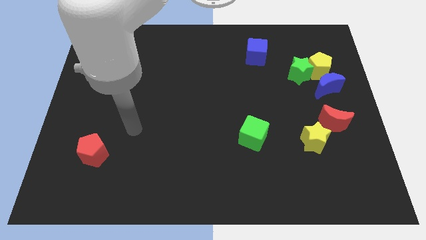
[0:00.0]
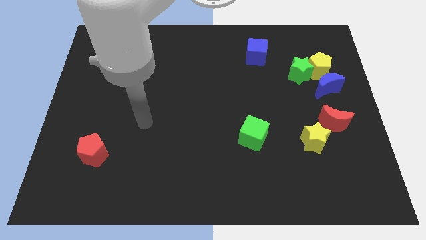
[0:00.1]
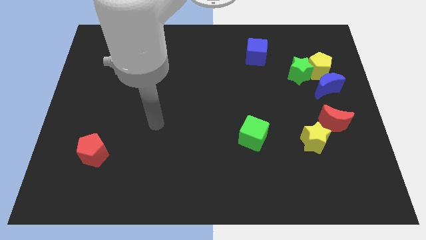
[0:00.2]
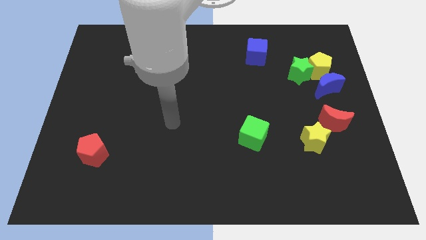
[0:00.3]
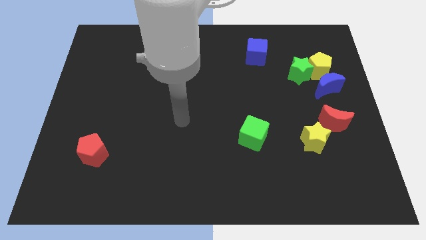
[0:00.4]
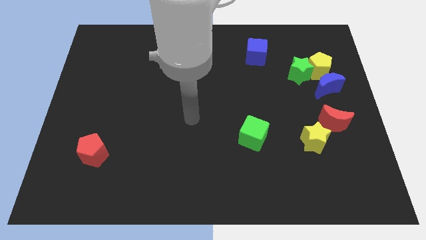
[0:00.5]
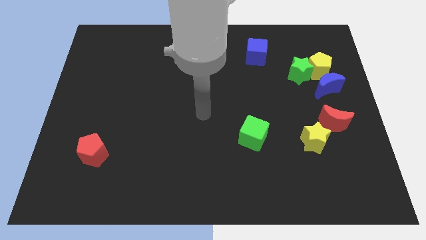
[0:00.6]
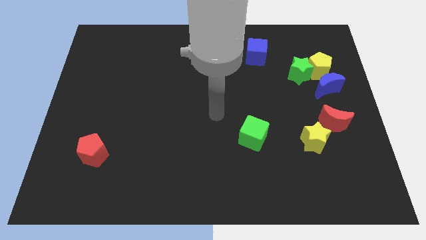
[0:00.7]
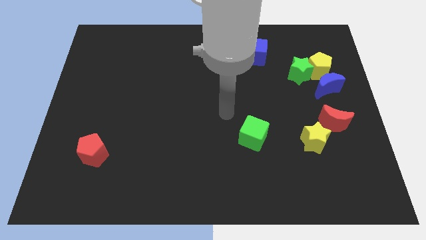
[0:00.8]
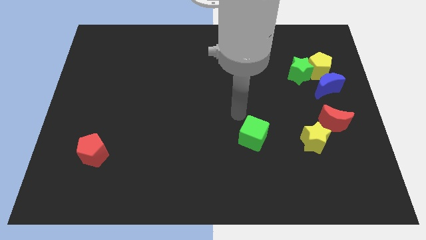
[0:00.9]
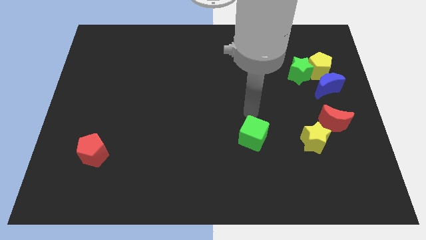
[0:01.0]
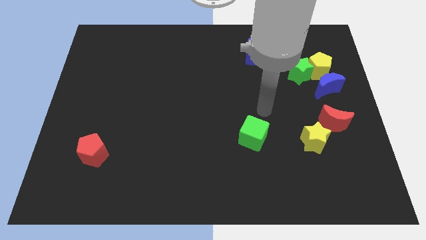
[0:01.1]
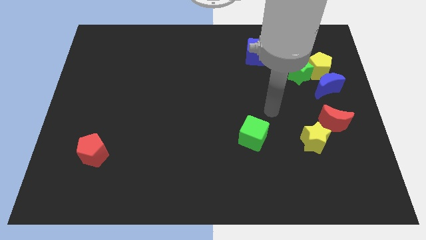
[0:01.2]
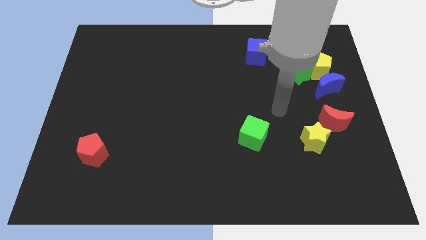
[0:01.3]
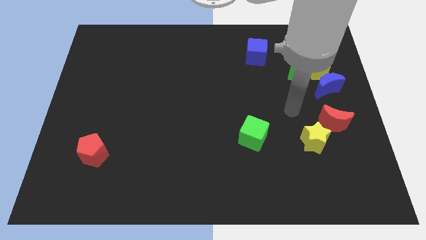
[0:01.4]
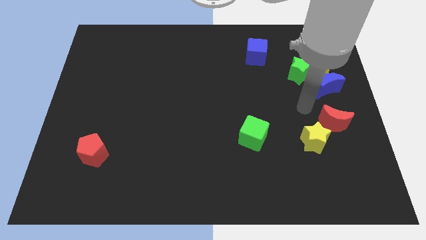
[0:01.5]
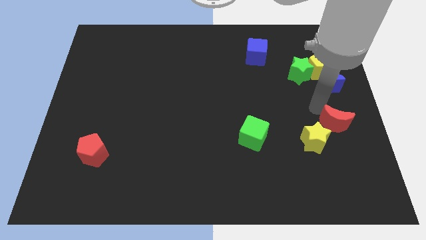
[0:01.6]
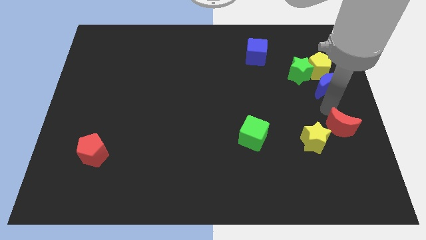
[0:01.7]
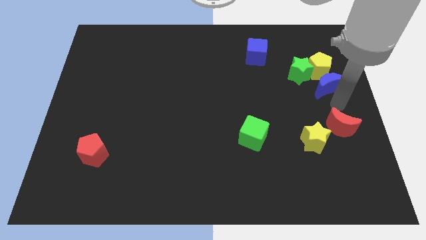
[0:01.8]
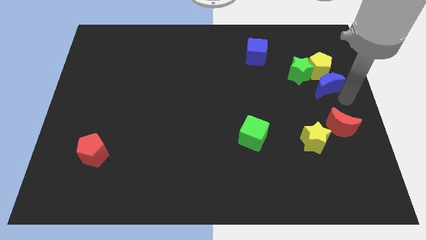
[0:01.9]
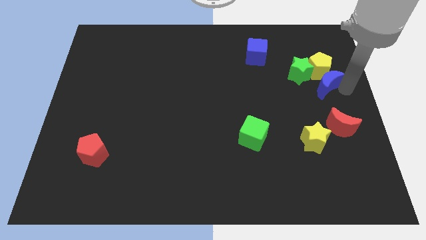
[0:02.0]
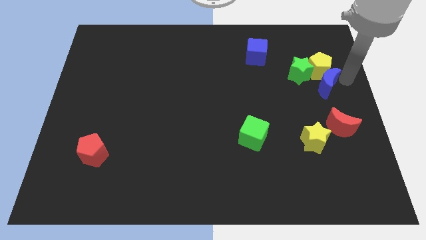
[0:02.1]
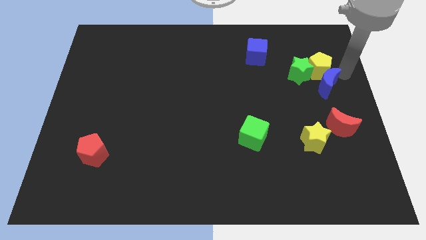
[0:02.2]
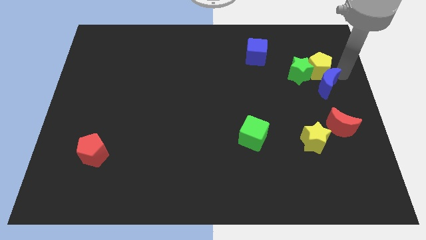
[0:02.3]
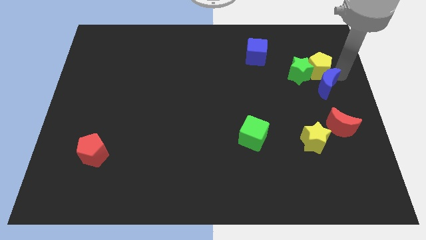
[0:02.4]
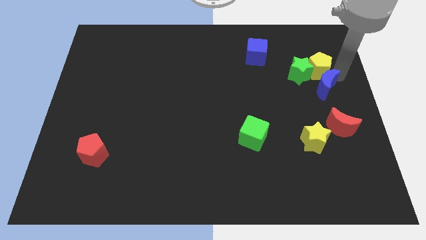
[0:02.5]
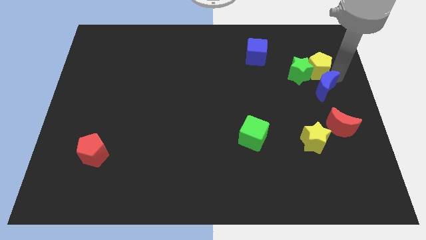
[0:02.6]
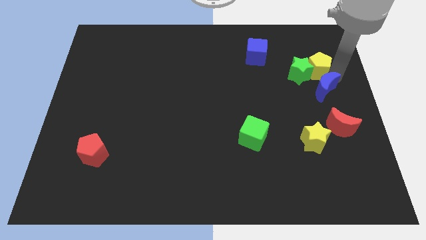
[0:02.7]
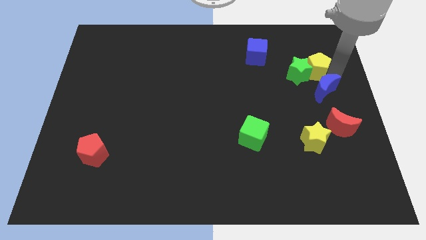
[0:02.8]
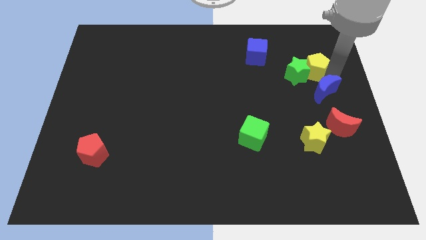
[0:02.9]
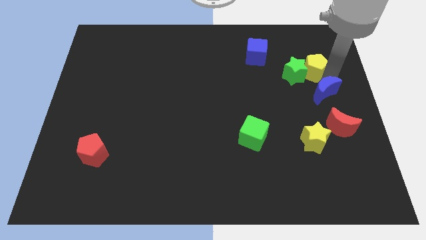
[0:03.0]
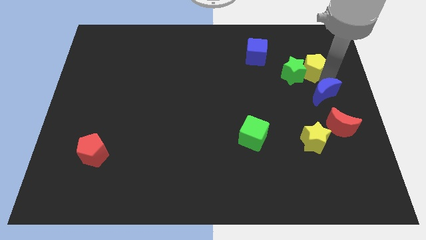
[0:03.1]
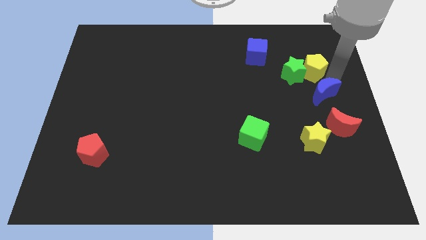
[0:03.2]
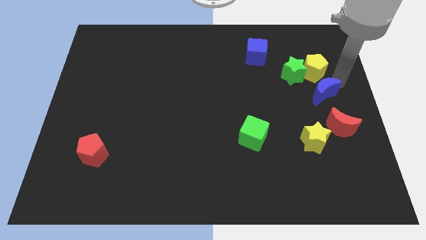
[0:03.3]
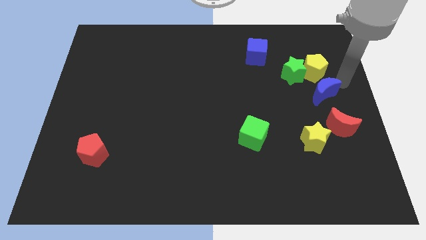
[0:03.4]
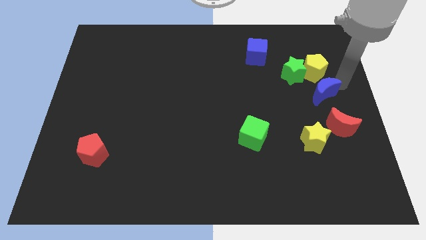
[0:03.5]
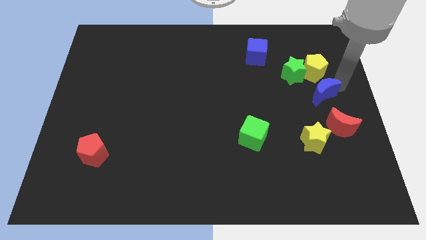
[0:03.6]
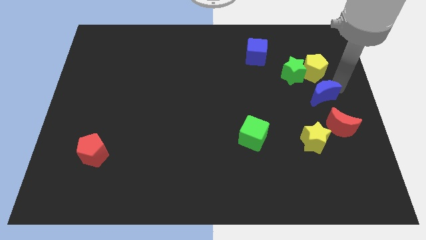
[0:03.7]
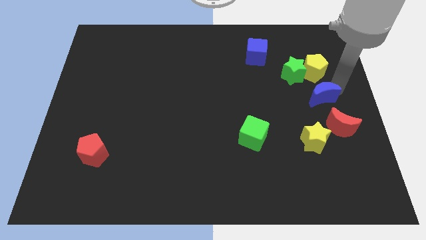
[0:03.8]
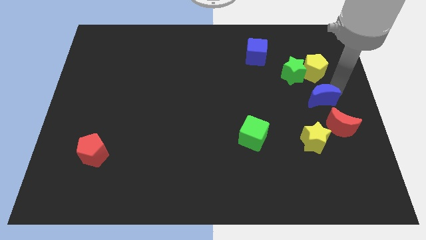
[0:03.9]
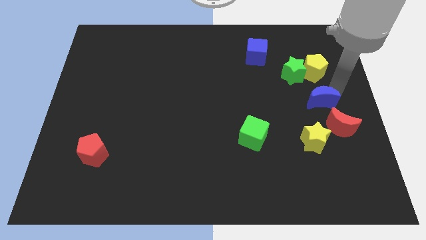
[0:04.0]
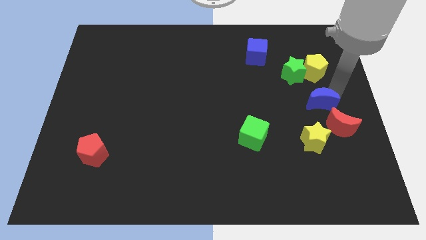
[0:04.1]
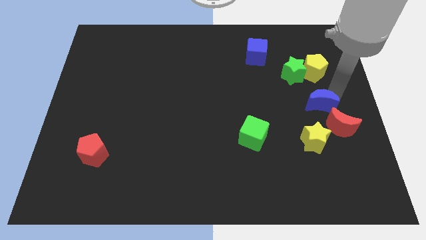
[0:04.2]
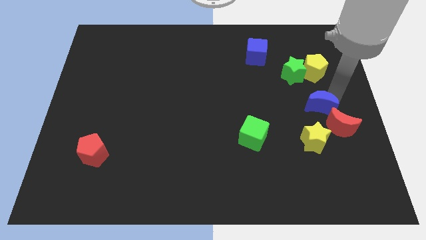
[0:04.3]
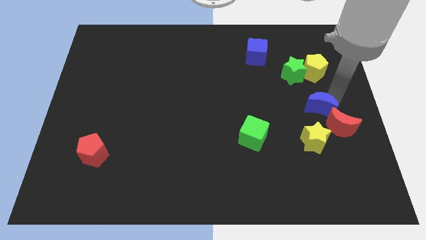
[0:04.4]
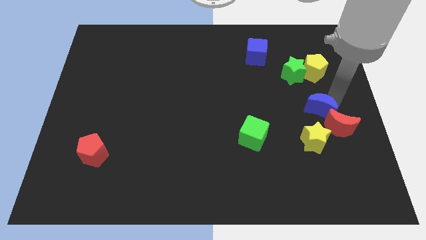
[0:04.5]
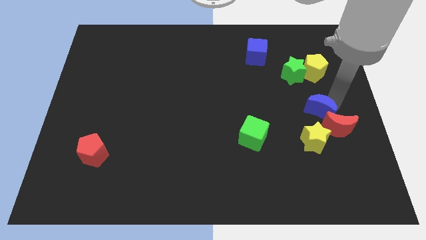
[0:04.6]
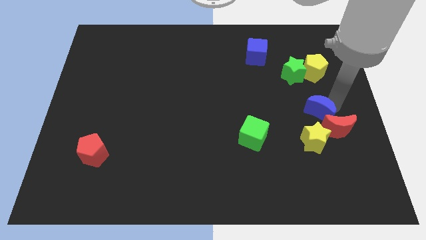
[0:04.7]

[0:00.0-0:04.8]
slightly slide the blue moon down and to the left

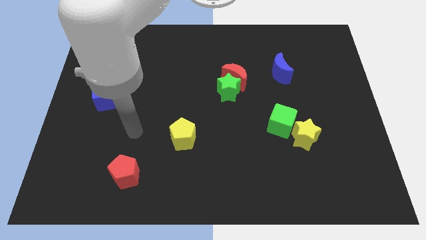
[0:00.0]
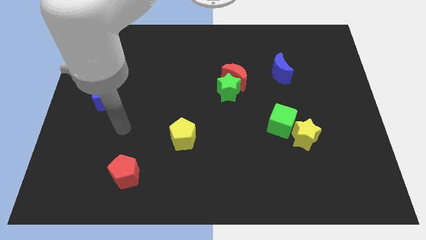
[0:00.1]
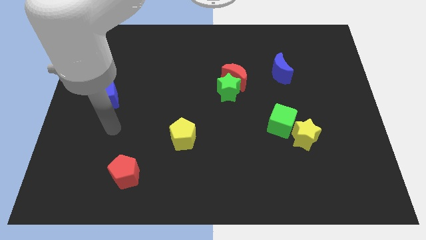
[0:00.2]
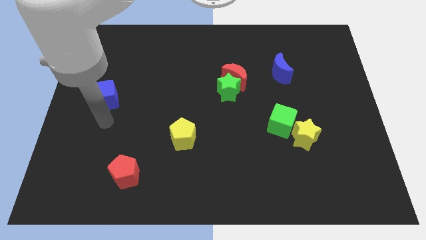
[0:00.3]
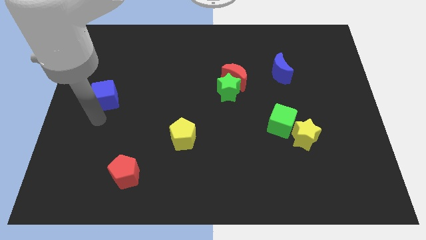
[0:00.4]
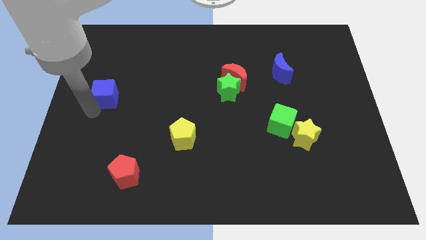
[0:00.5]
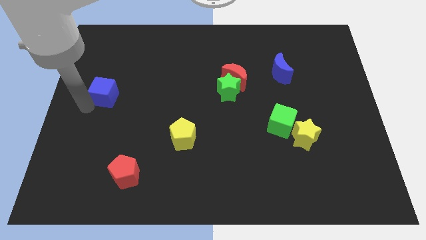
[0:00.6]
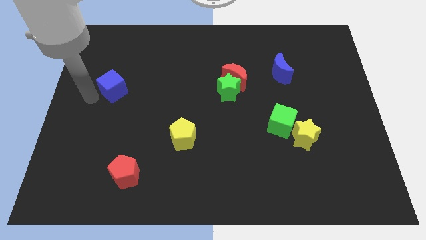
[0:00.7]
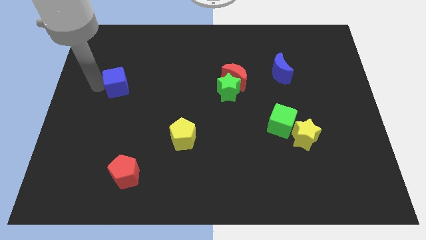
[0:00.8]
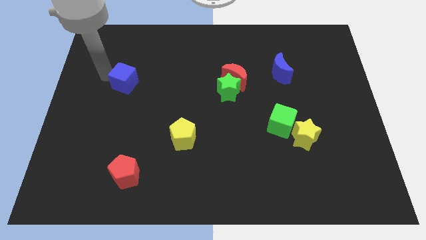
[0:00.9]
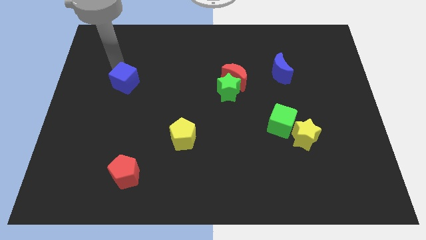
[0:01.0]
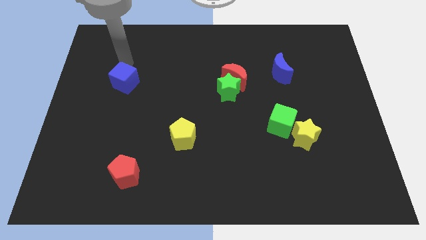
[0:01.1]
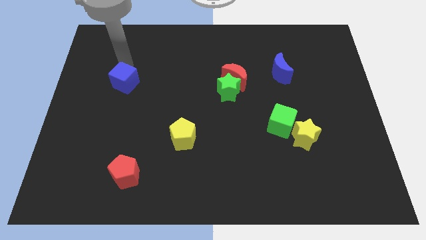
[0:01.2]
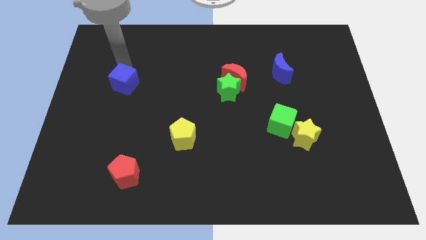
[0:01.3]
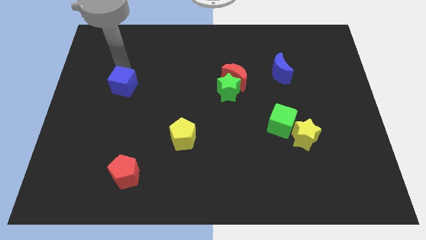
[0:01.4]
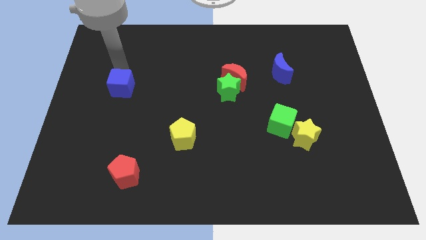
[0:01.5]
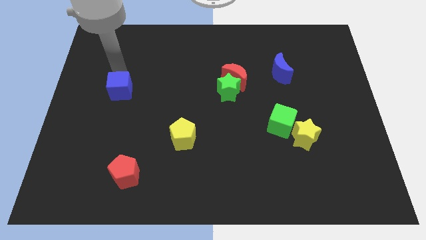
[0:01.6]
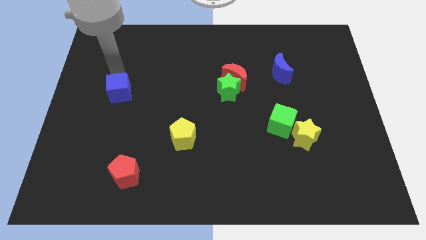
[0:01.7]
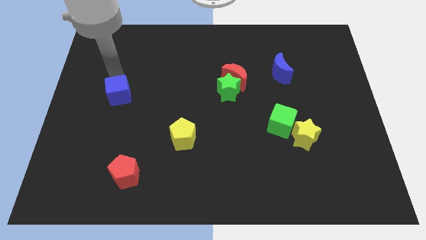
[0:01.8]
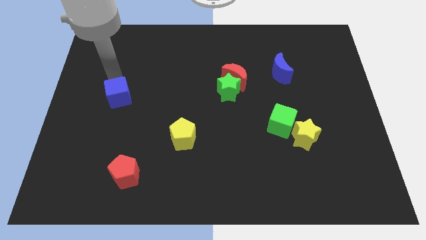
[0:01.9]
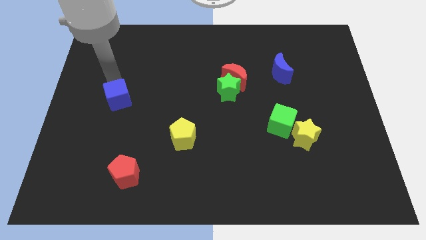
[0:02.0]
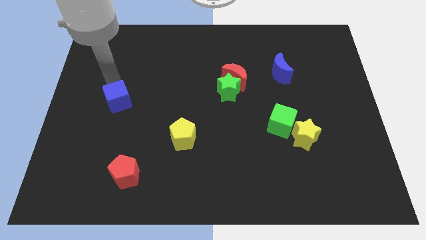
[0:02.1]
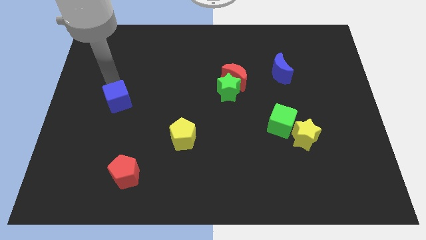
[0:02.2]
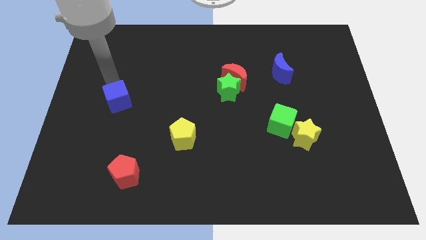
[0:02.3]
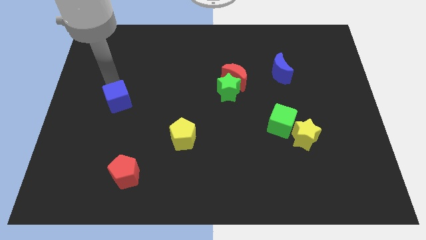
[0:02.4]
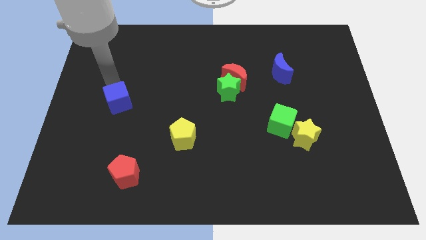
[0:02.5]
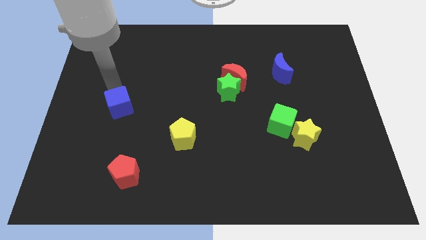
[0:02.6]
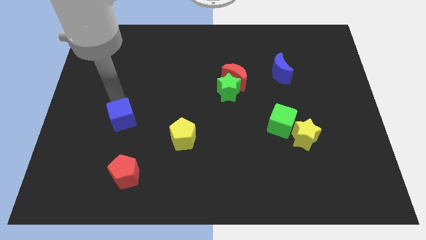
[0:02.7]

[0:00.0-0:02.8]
slightly move the blue cube down and right diagonally
